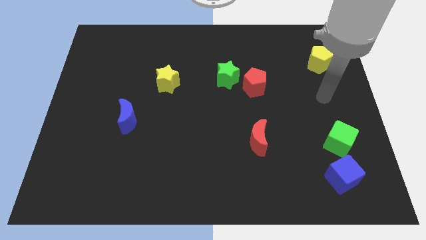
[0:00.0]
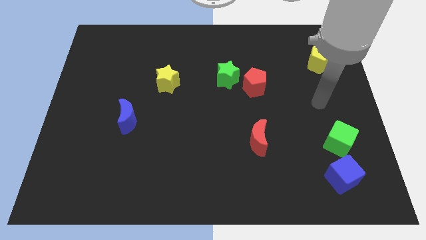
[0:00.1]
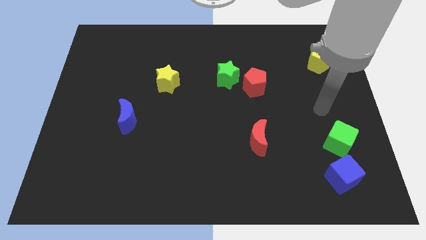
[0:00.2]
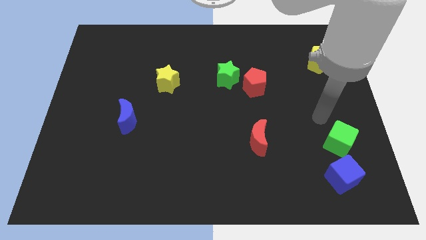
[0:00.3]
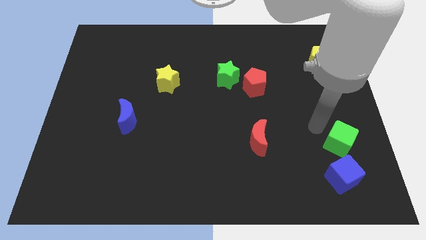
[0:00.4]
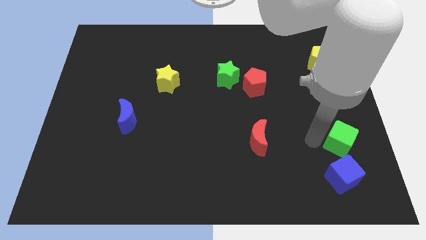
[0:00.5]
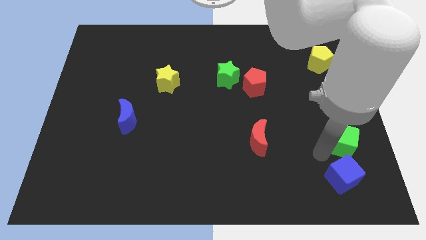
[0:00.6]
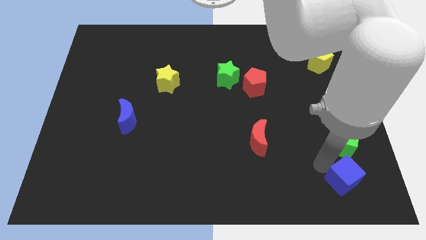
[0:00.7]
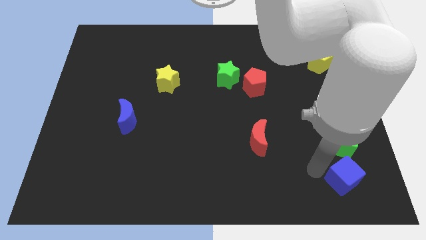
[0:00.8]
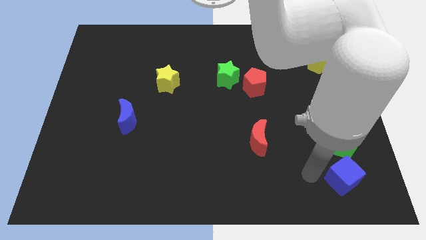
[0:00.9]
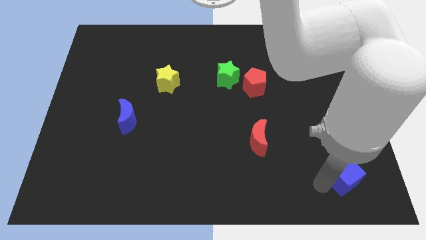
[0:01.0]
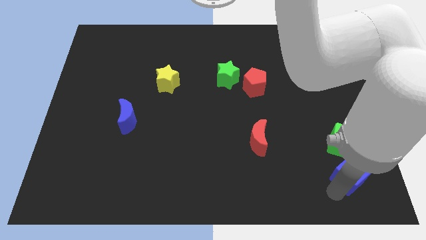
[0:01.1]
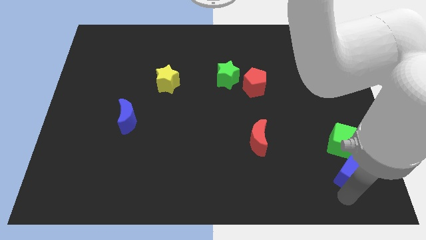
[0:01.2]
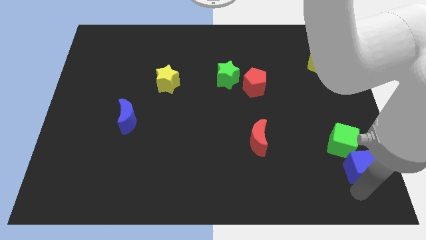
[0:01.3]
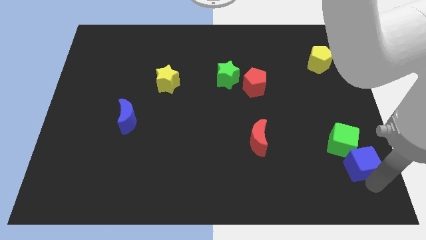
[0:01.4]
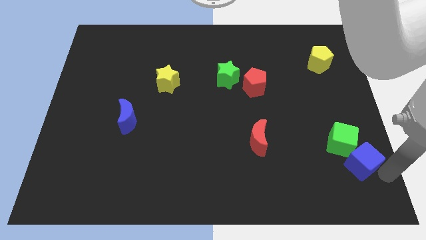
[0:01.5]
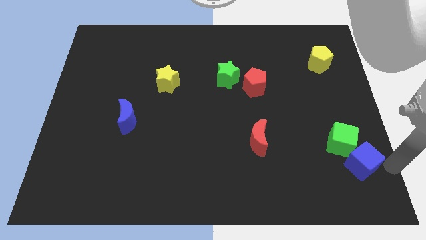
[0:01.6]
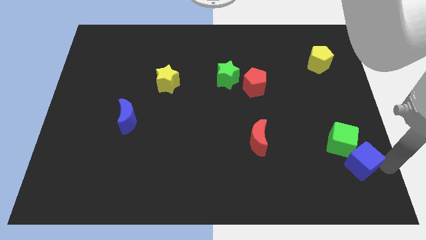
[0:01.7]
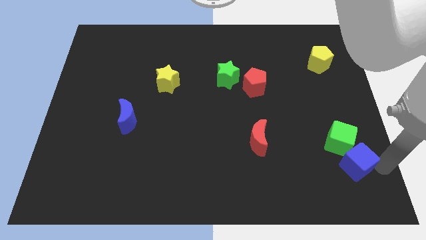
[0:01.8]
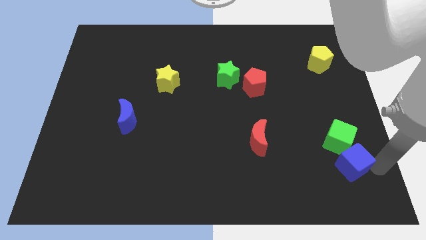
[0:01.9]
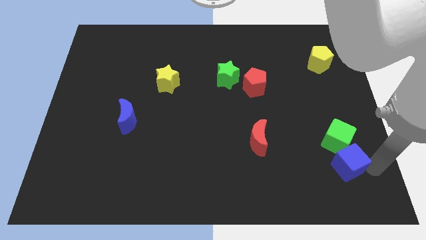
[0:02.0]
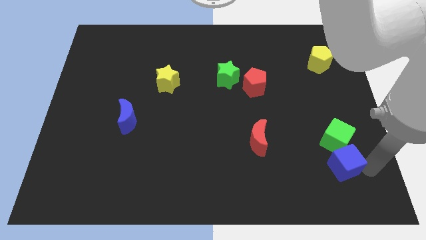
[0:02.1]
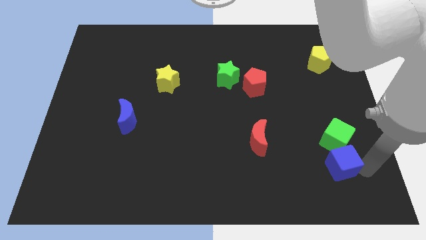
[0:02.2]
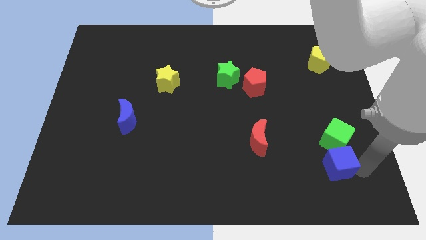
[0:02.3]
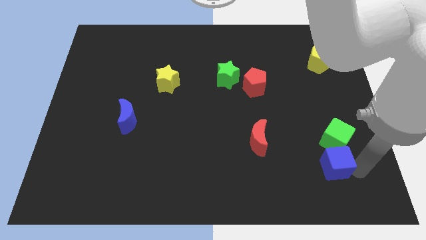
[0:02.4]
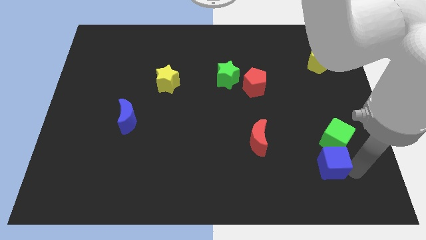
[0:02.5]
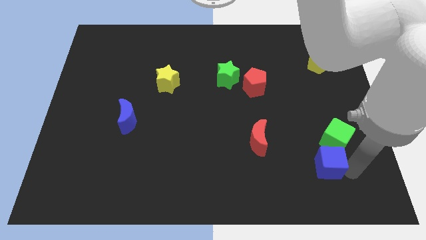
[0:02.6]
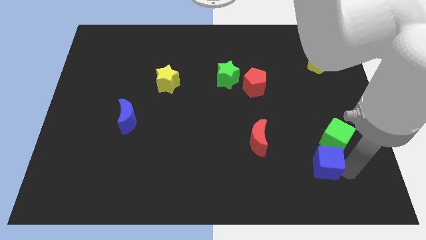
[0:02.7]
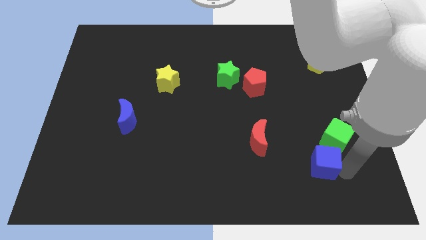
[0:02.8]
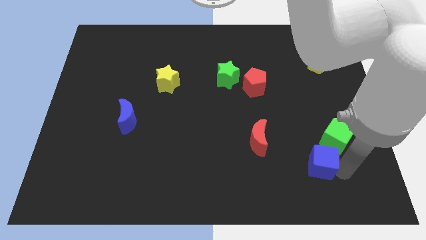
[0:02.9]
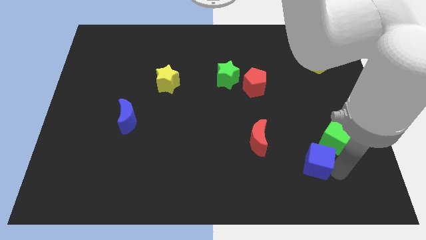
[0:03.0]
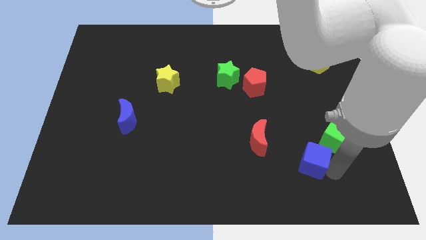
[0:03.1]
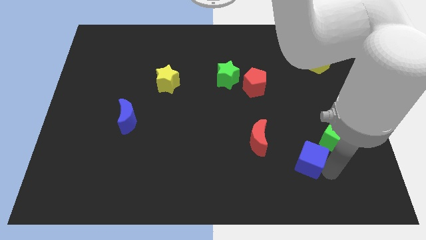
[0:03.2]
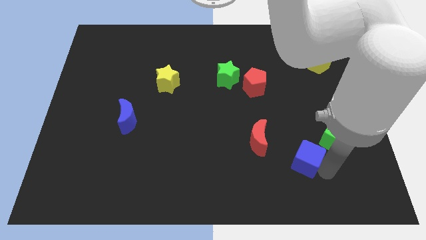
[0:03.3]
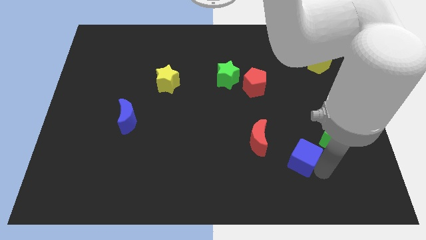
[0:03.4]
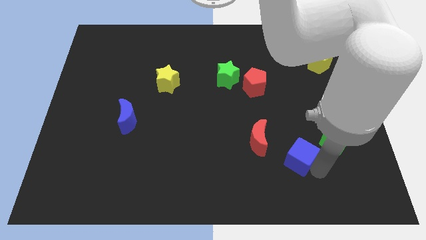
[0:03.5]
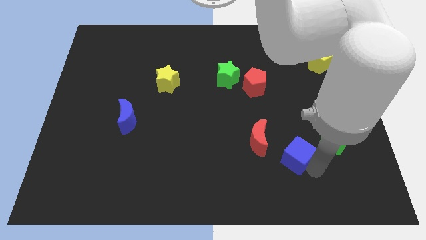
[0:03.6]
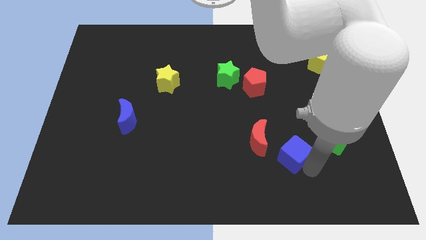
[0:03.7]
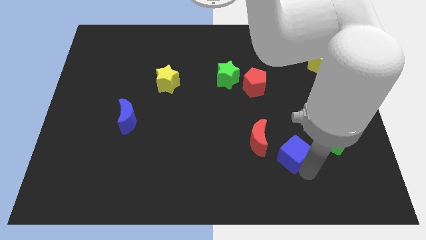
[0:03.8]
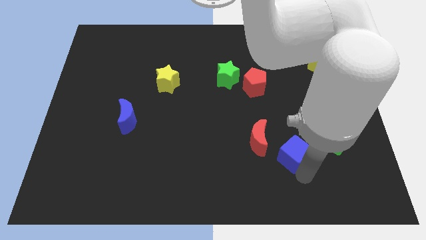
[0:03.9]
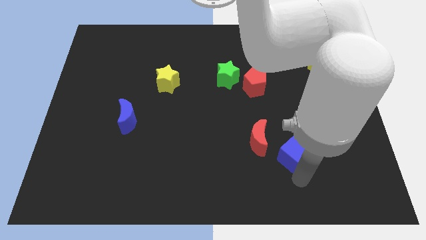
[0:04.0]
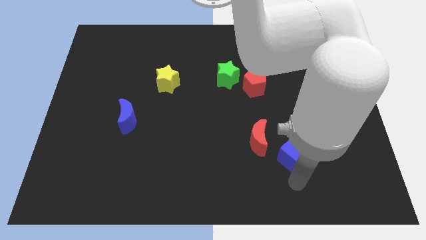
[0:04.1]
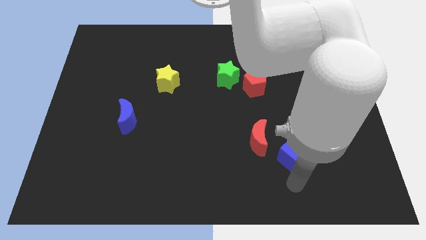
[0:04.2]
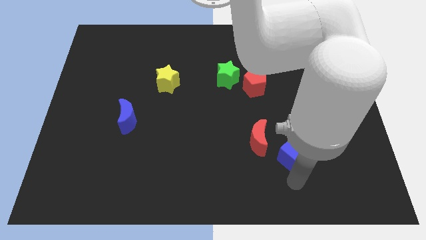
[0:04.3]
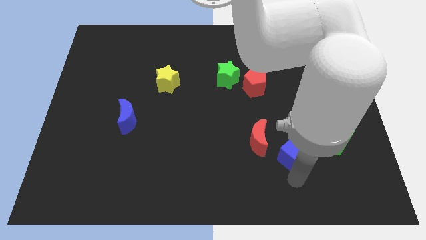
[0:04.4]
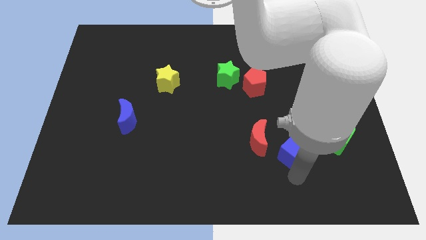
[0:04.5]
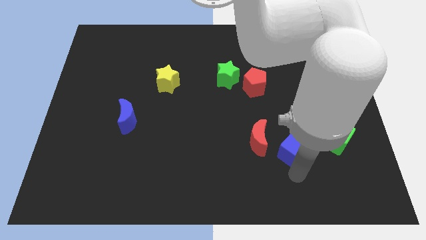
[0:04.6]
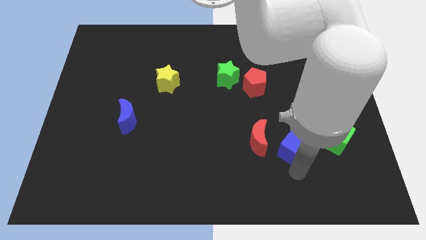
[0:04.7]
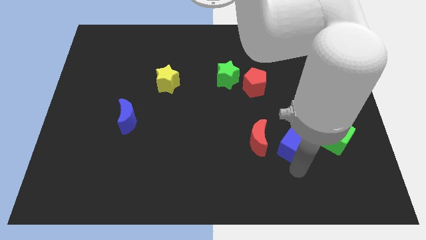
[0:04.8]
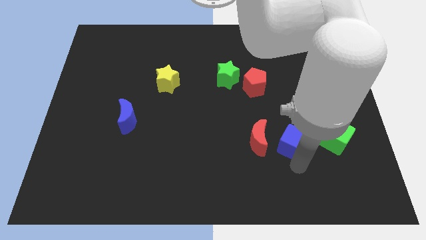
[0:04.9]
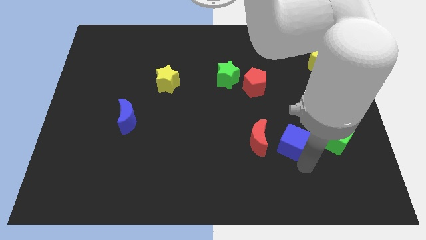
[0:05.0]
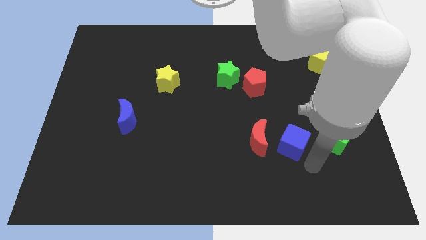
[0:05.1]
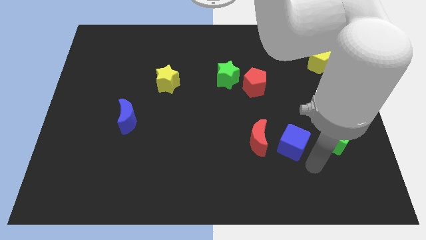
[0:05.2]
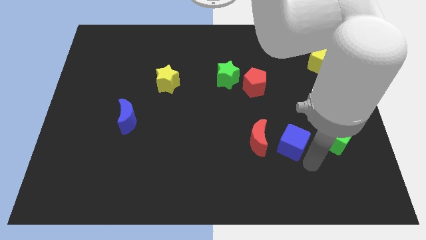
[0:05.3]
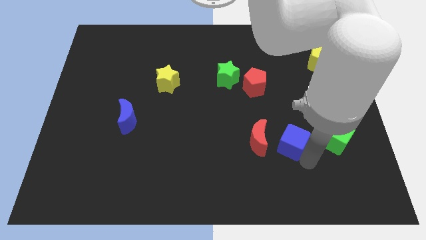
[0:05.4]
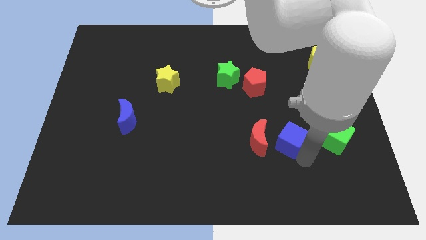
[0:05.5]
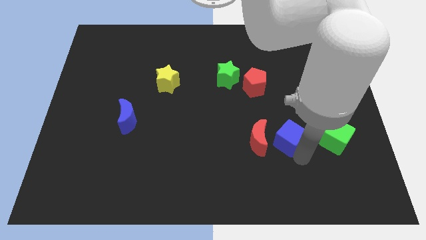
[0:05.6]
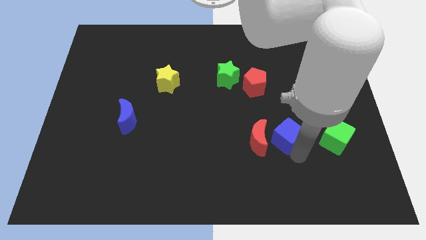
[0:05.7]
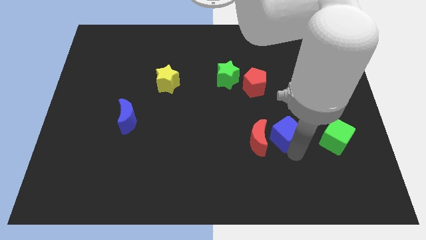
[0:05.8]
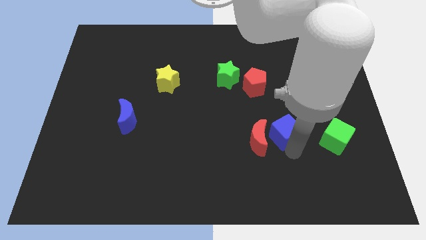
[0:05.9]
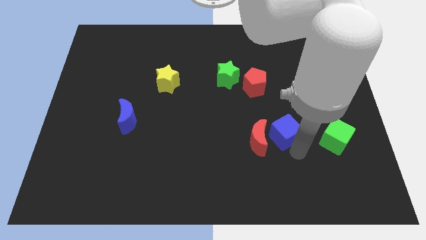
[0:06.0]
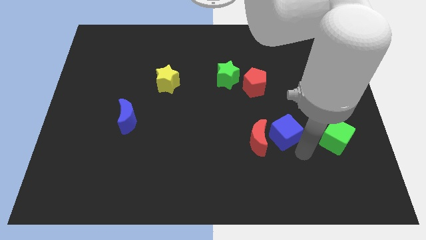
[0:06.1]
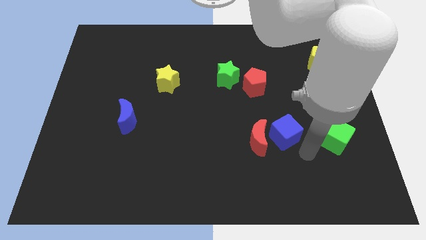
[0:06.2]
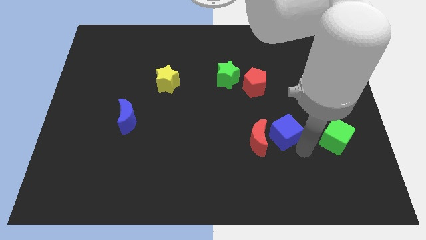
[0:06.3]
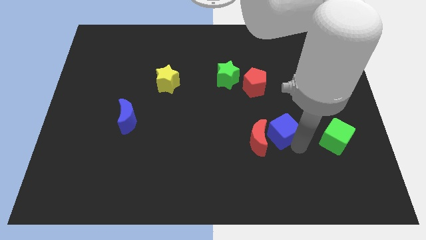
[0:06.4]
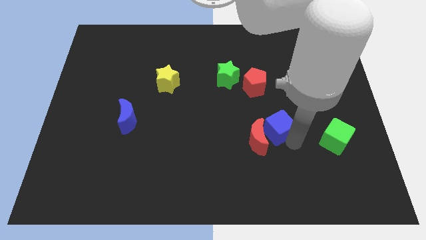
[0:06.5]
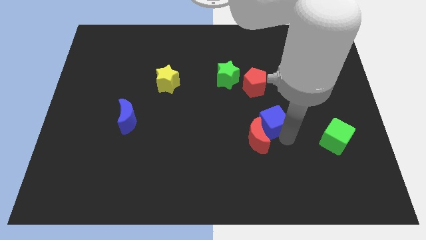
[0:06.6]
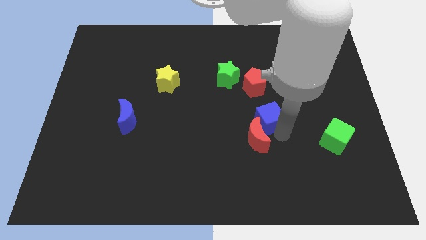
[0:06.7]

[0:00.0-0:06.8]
slide the blue cube diagonally upwards and to the left

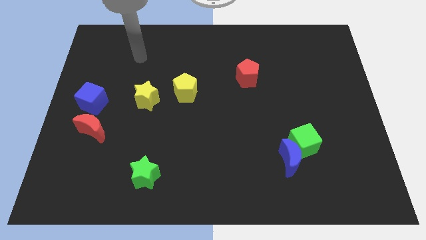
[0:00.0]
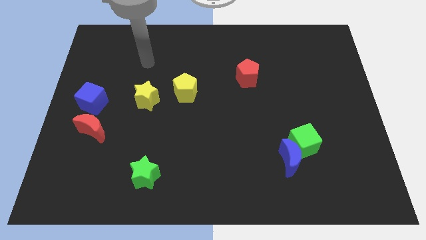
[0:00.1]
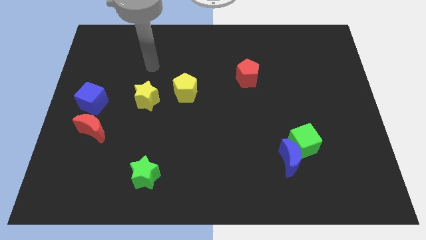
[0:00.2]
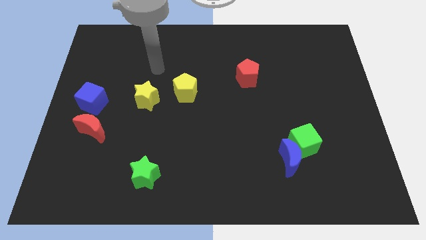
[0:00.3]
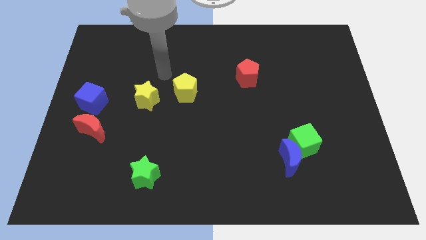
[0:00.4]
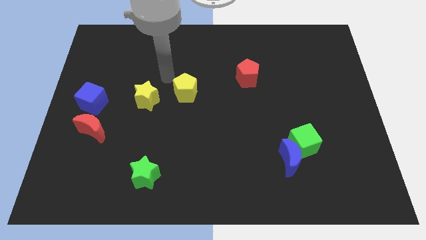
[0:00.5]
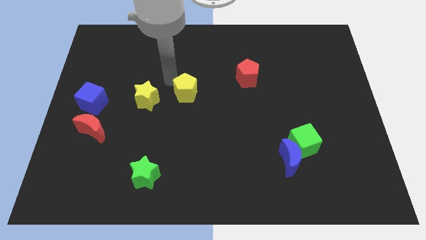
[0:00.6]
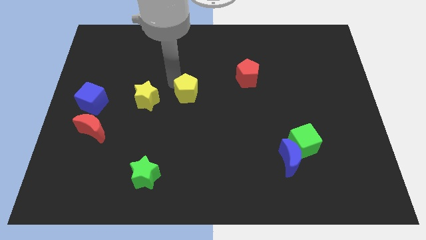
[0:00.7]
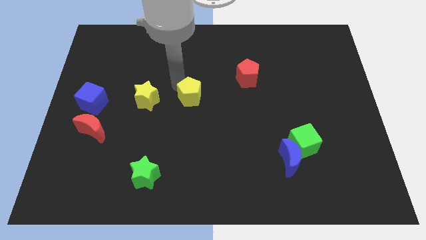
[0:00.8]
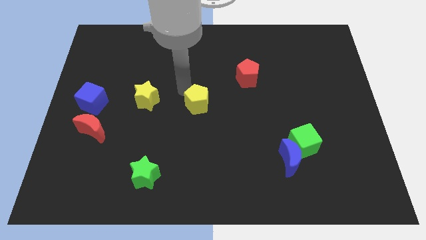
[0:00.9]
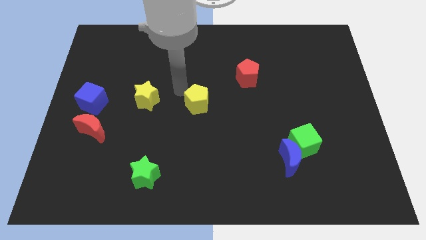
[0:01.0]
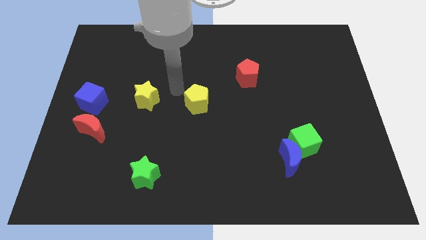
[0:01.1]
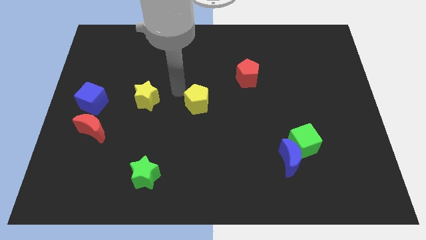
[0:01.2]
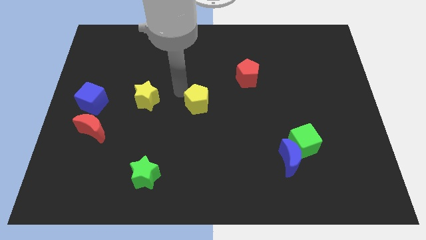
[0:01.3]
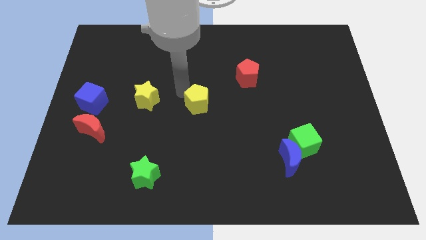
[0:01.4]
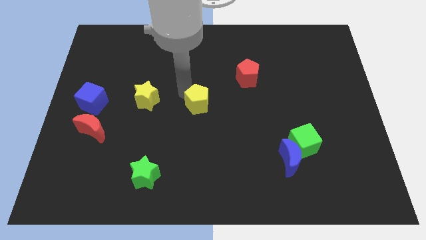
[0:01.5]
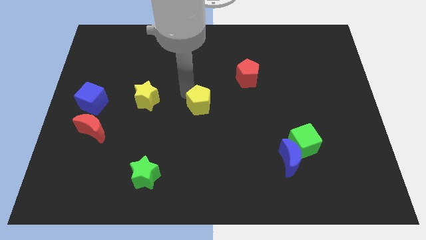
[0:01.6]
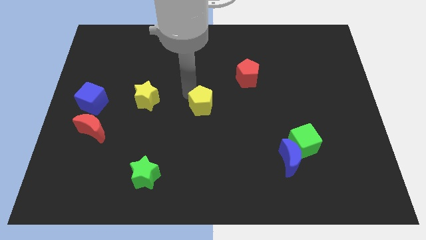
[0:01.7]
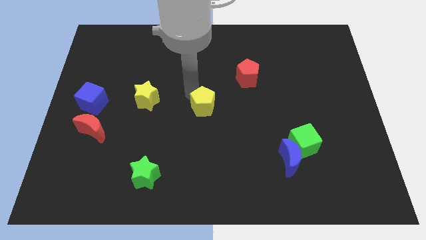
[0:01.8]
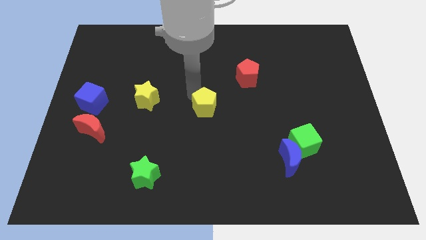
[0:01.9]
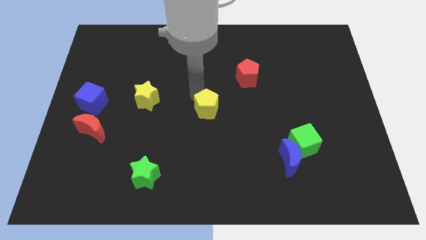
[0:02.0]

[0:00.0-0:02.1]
slightly move the yellow pentagon downwards and to the right diagonally
